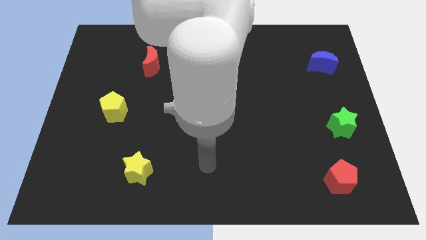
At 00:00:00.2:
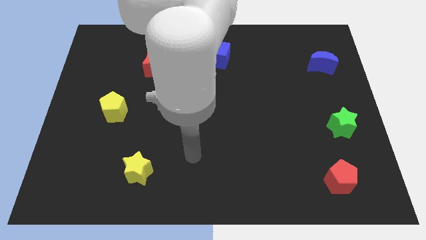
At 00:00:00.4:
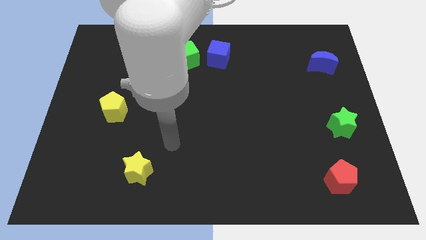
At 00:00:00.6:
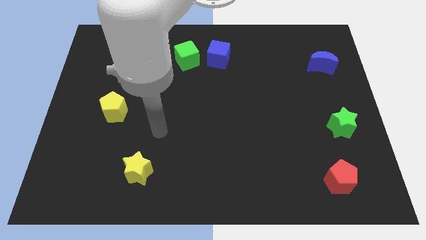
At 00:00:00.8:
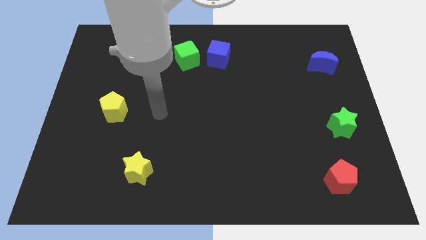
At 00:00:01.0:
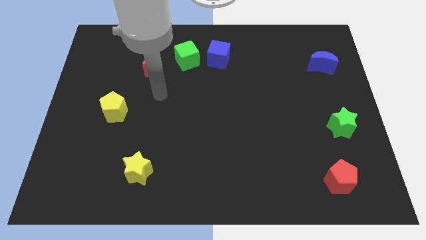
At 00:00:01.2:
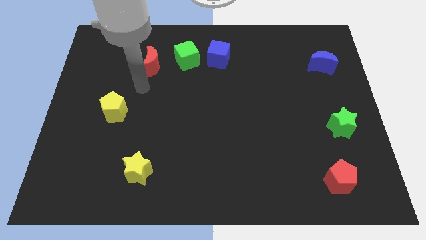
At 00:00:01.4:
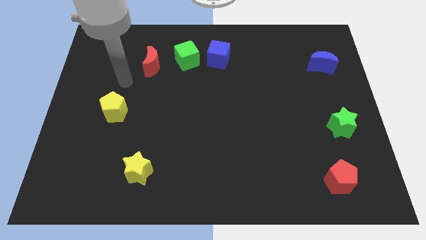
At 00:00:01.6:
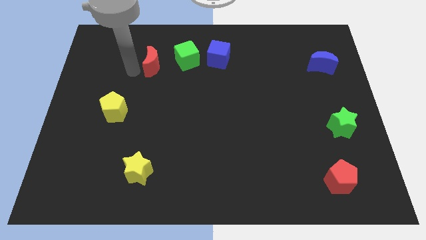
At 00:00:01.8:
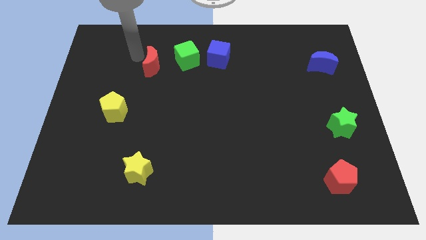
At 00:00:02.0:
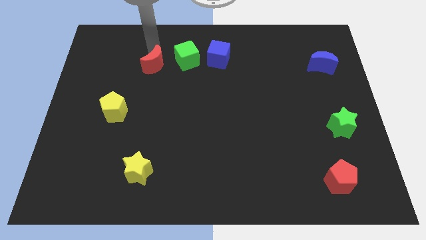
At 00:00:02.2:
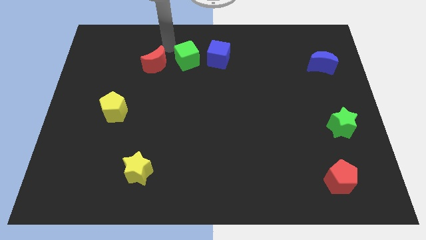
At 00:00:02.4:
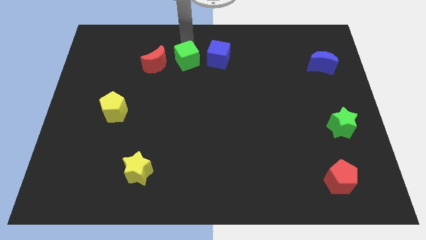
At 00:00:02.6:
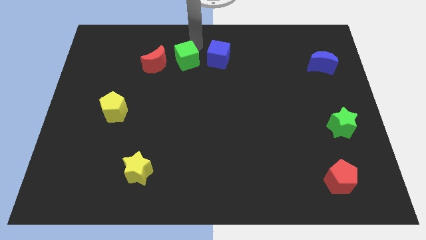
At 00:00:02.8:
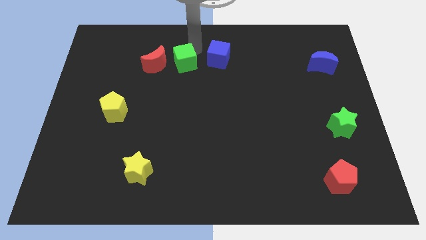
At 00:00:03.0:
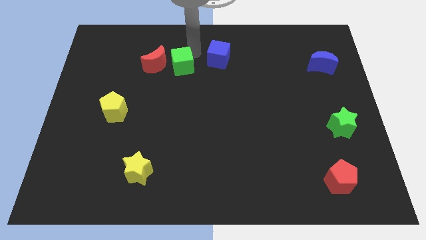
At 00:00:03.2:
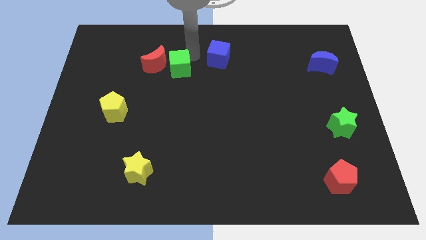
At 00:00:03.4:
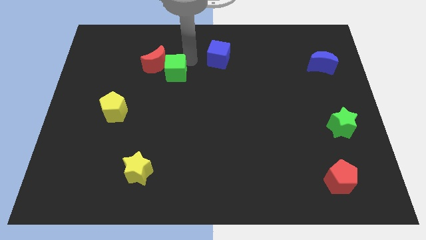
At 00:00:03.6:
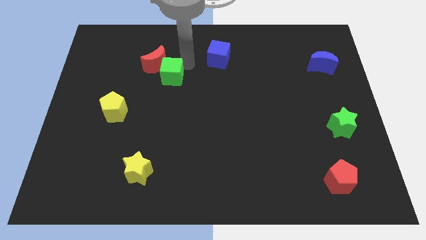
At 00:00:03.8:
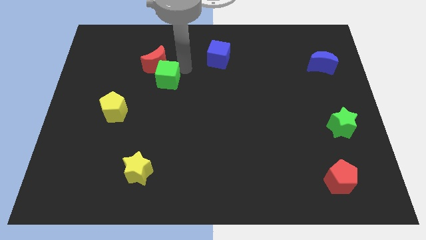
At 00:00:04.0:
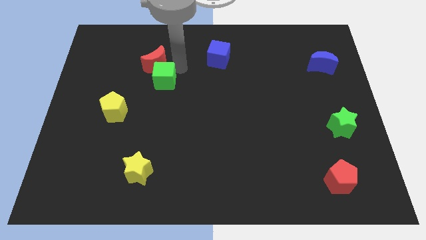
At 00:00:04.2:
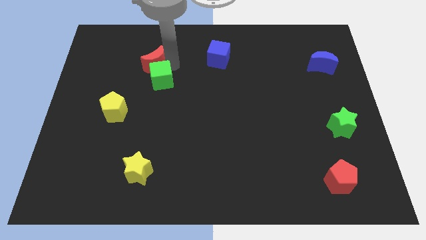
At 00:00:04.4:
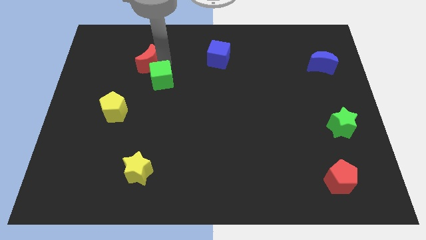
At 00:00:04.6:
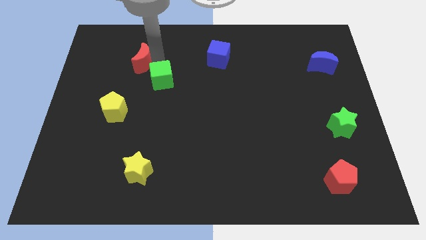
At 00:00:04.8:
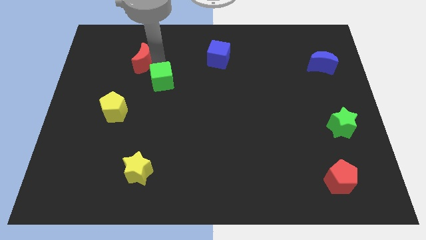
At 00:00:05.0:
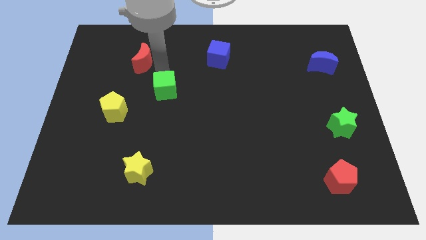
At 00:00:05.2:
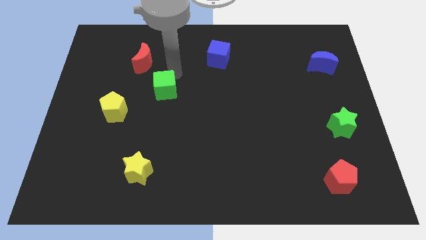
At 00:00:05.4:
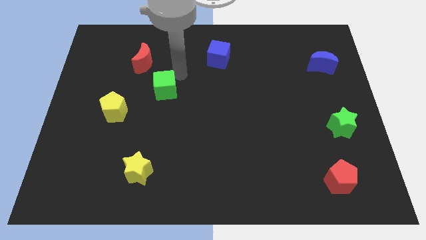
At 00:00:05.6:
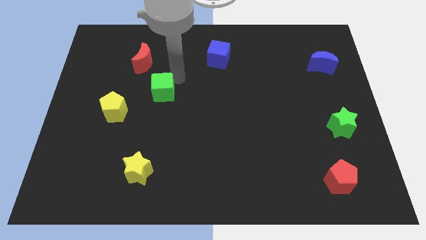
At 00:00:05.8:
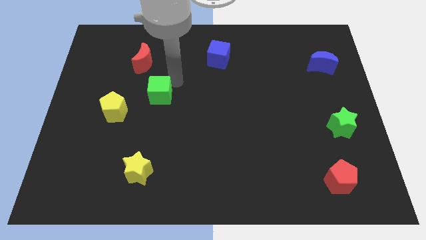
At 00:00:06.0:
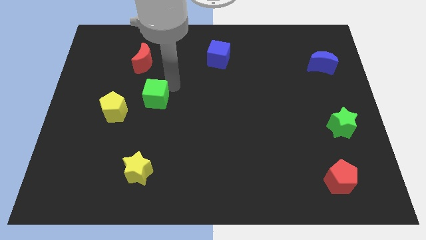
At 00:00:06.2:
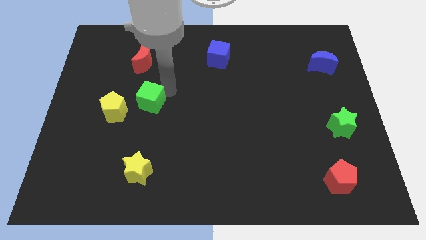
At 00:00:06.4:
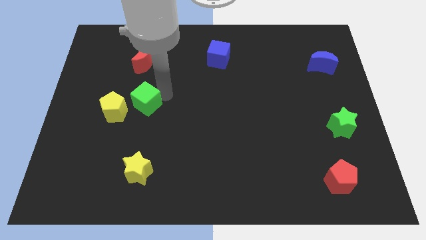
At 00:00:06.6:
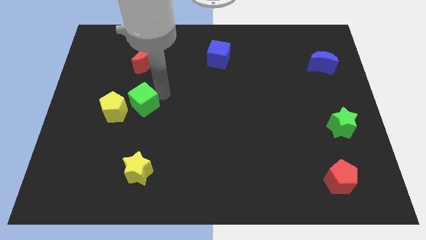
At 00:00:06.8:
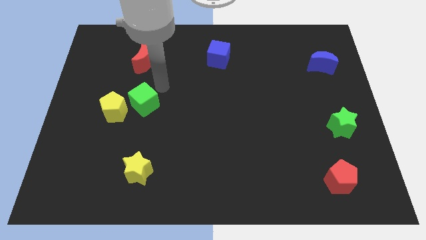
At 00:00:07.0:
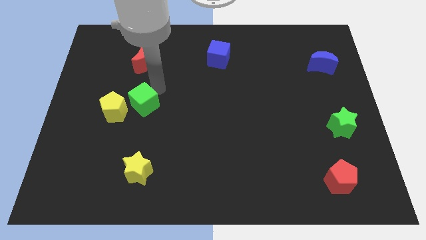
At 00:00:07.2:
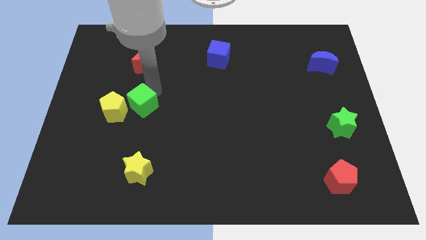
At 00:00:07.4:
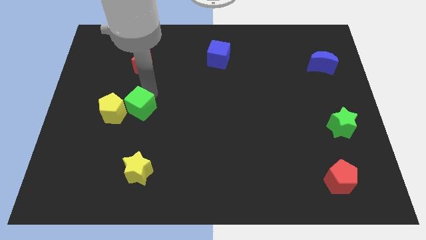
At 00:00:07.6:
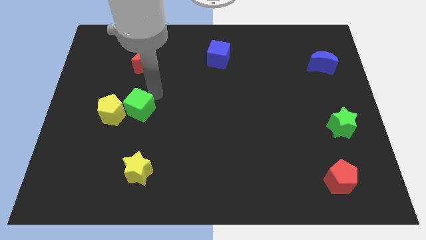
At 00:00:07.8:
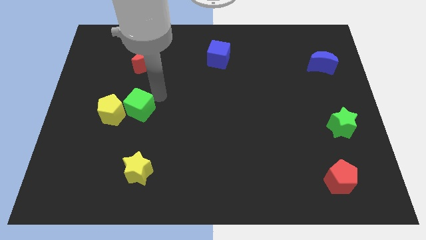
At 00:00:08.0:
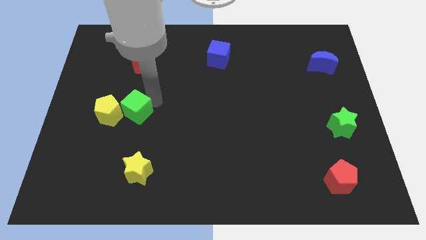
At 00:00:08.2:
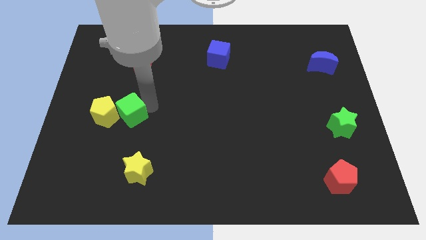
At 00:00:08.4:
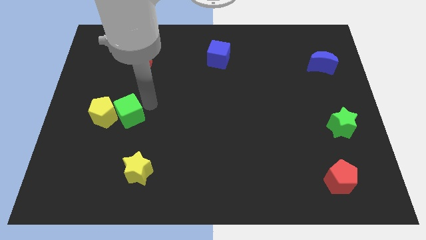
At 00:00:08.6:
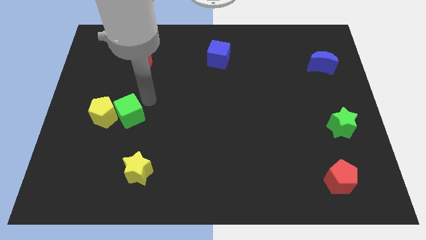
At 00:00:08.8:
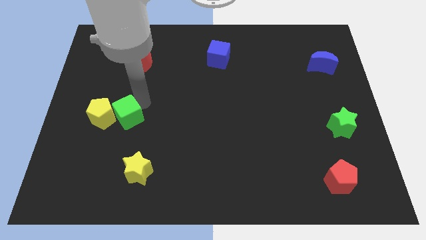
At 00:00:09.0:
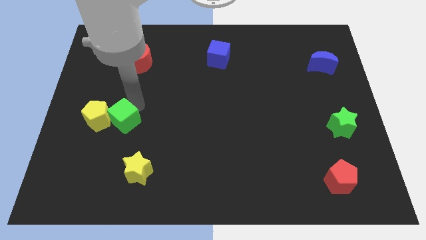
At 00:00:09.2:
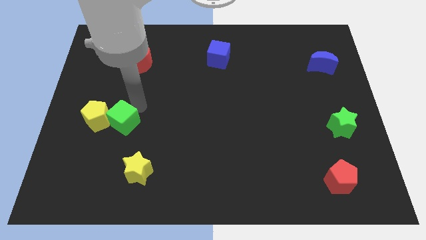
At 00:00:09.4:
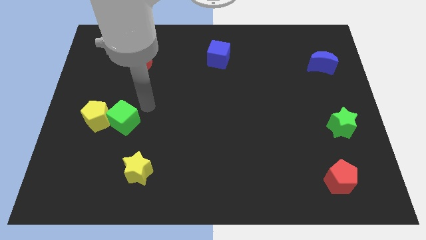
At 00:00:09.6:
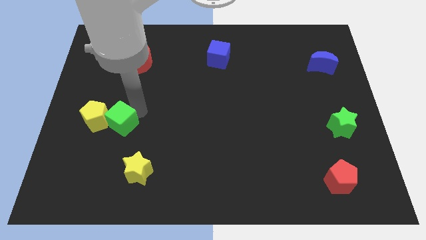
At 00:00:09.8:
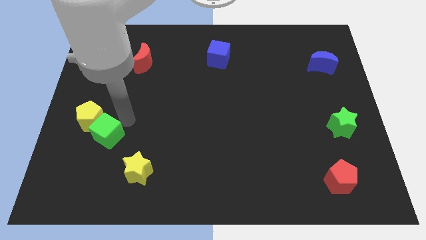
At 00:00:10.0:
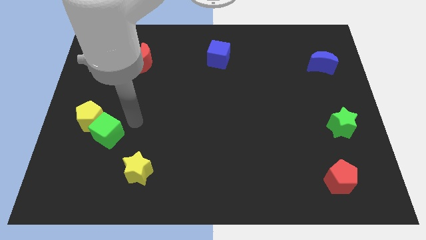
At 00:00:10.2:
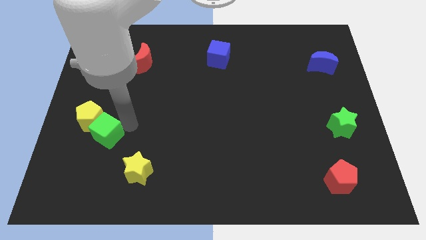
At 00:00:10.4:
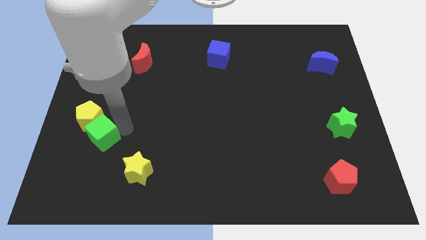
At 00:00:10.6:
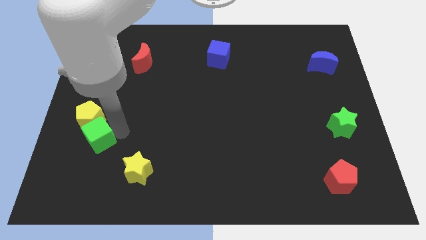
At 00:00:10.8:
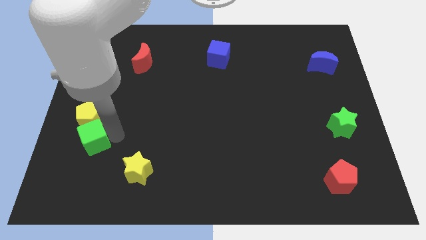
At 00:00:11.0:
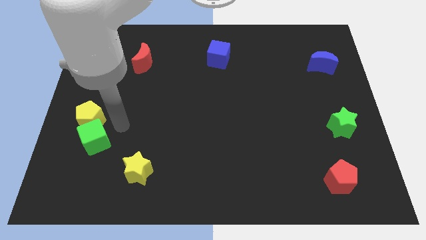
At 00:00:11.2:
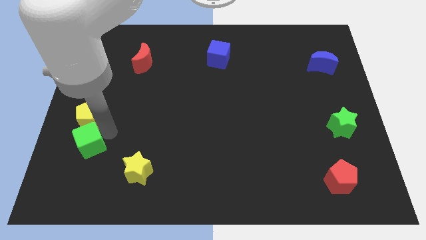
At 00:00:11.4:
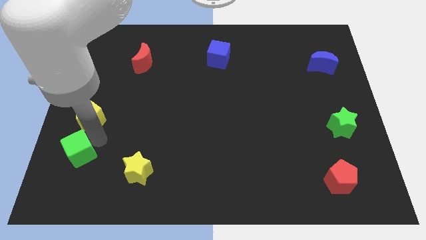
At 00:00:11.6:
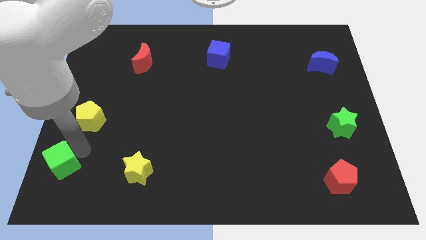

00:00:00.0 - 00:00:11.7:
push the green cube to the bottom left corner

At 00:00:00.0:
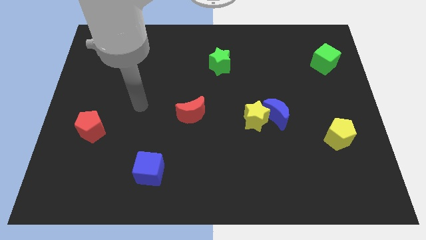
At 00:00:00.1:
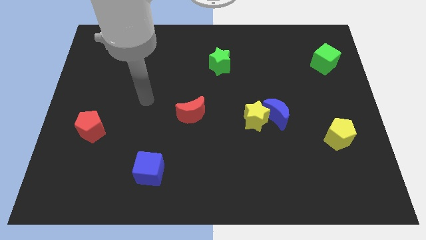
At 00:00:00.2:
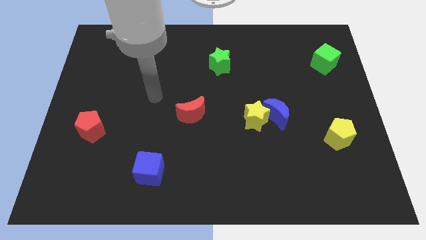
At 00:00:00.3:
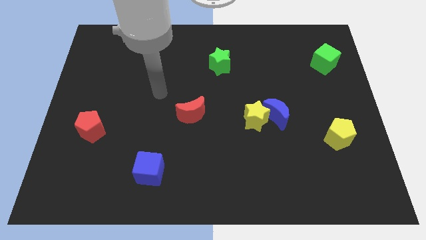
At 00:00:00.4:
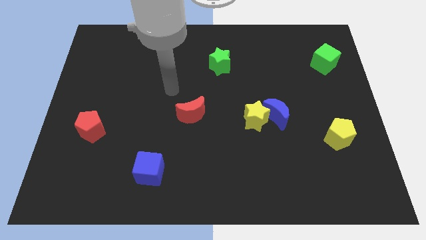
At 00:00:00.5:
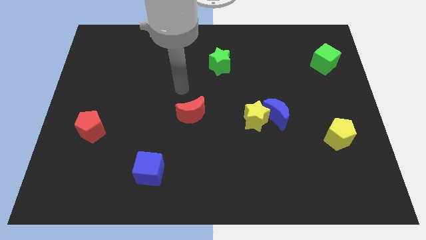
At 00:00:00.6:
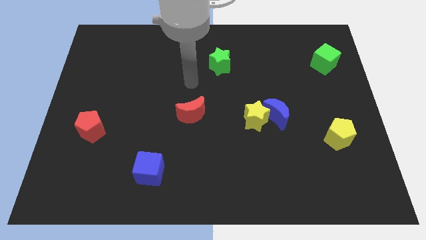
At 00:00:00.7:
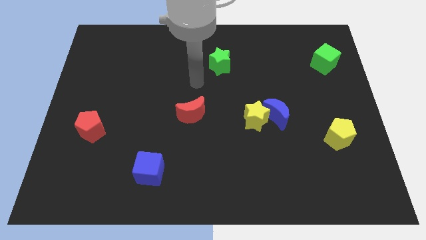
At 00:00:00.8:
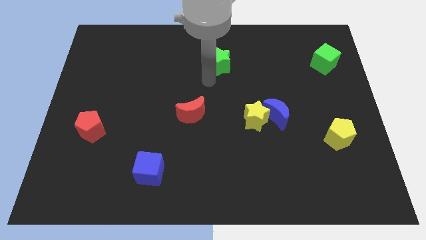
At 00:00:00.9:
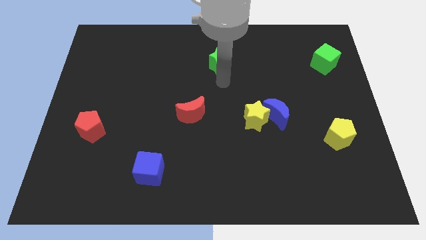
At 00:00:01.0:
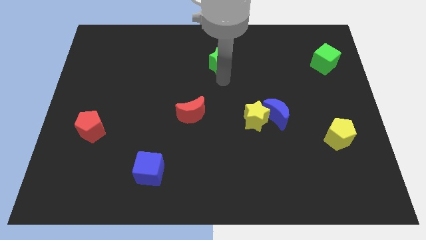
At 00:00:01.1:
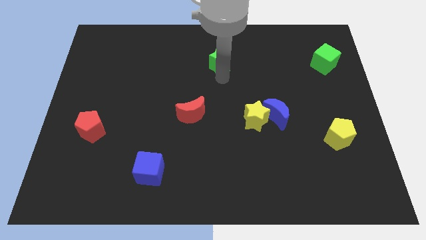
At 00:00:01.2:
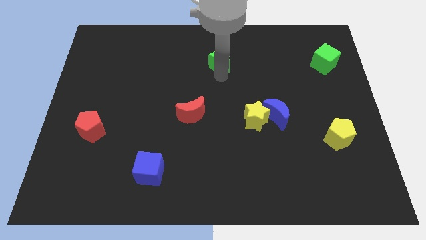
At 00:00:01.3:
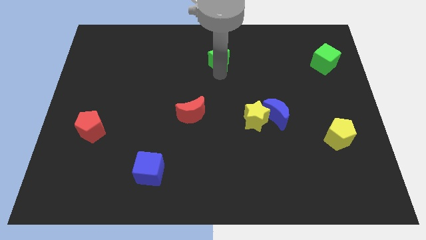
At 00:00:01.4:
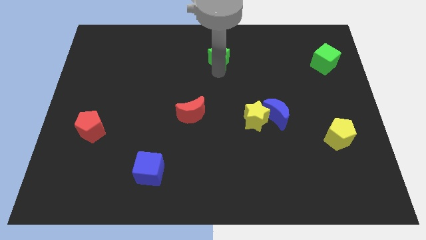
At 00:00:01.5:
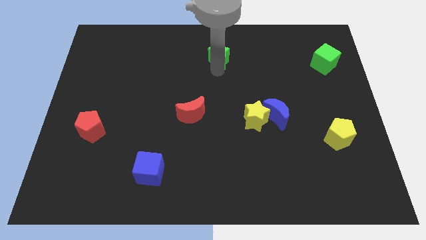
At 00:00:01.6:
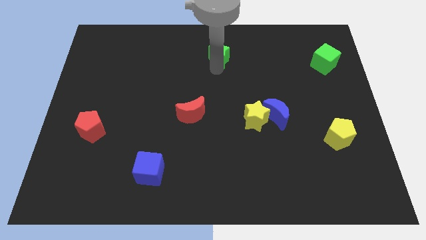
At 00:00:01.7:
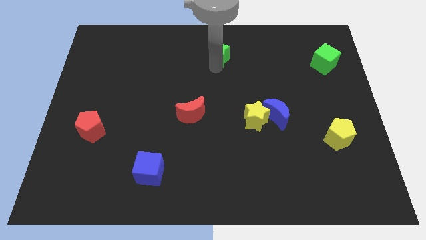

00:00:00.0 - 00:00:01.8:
put the green star to the top side

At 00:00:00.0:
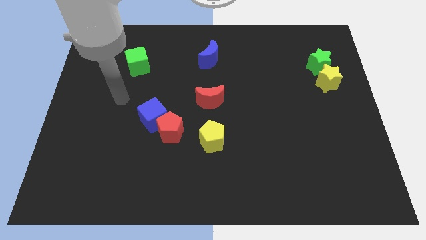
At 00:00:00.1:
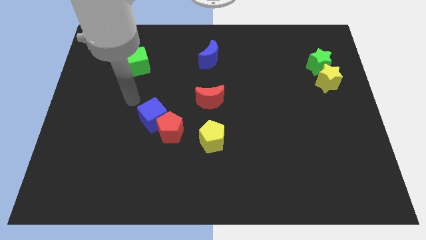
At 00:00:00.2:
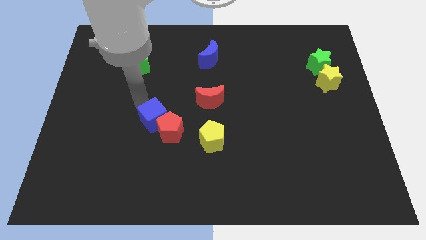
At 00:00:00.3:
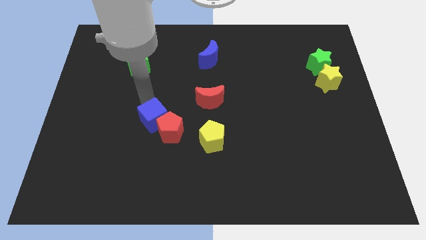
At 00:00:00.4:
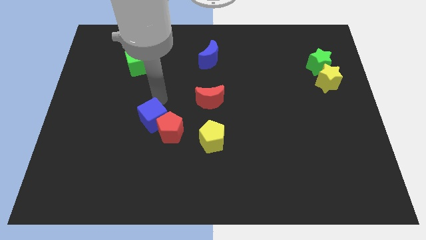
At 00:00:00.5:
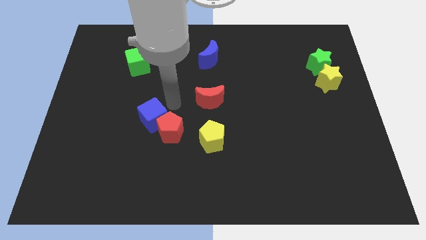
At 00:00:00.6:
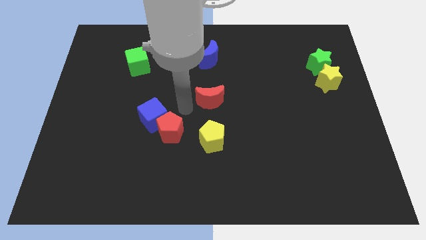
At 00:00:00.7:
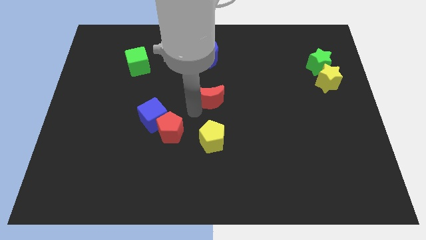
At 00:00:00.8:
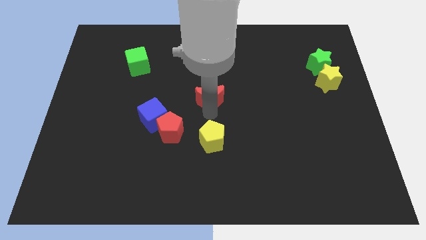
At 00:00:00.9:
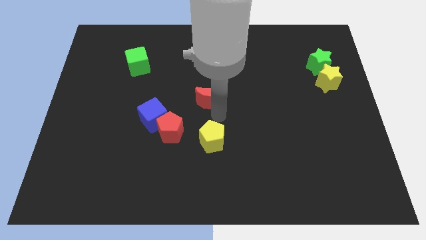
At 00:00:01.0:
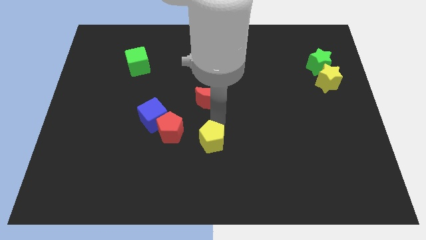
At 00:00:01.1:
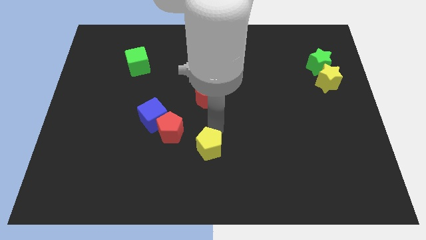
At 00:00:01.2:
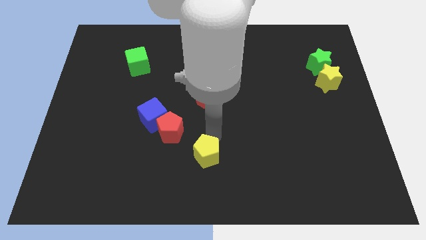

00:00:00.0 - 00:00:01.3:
move the yellow pentagon to the bottom
